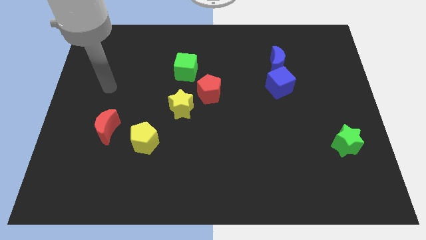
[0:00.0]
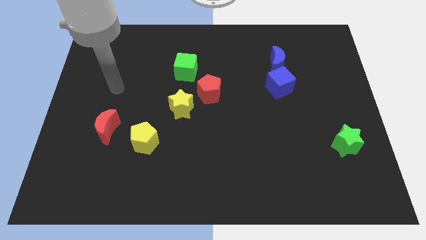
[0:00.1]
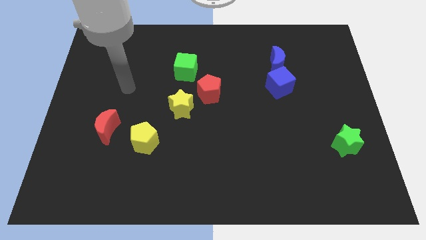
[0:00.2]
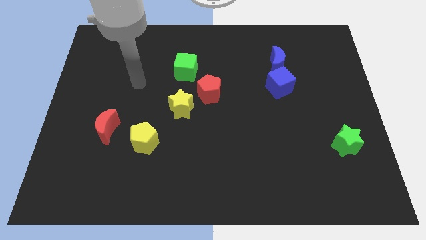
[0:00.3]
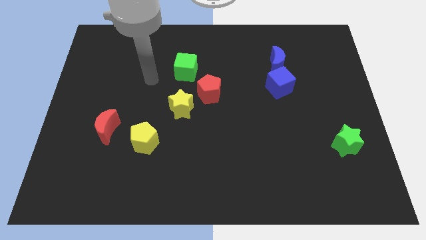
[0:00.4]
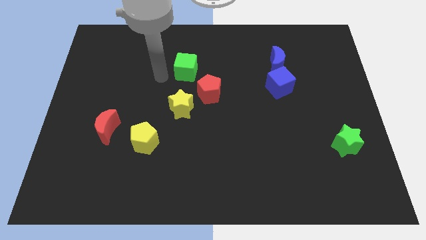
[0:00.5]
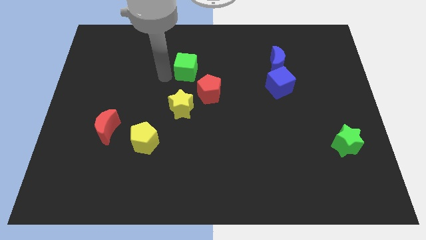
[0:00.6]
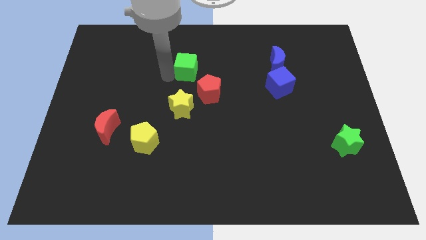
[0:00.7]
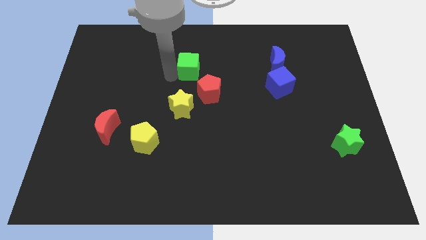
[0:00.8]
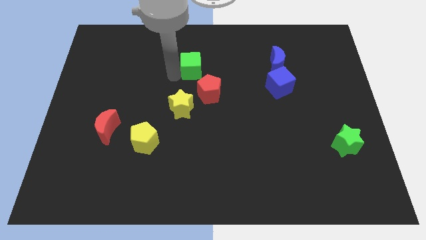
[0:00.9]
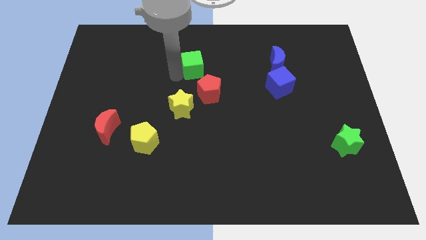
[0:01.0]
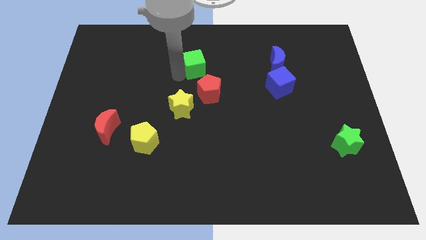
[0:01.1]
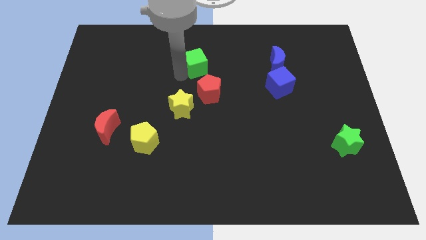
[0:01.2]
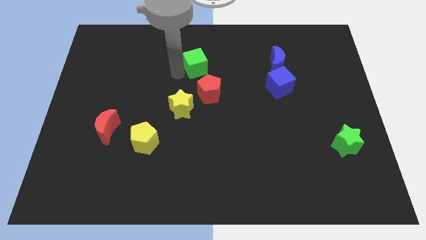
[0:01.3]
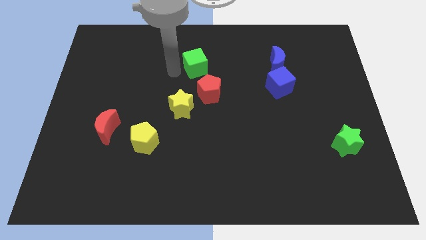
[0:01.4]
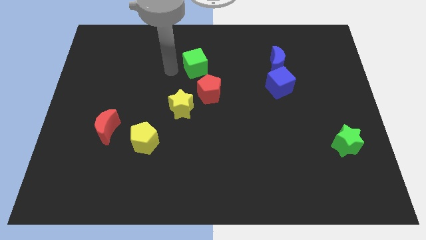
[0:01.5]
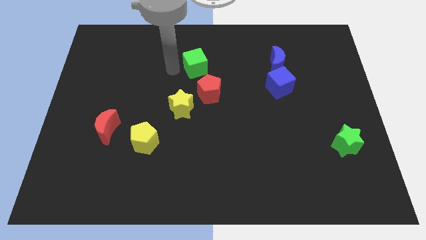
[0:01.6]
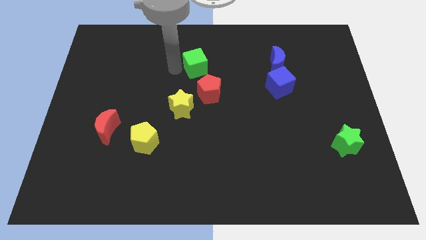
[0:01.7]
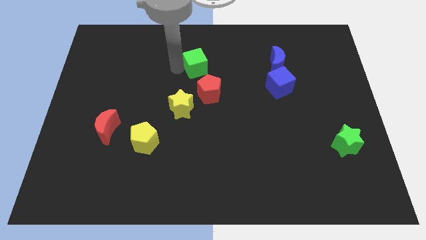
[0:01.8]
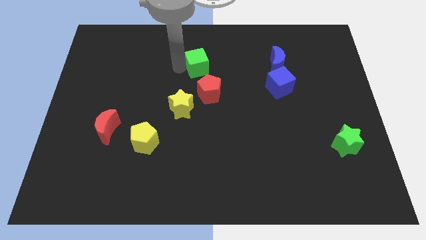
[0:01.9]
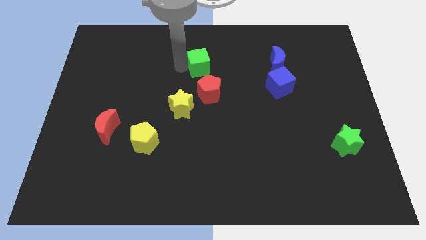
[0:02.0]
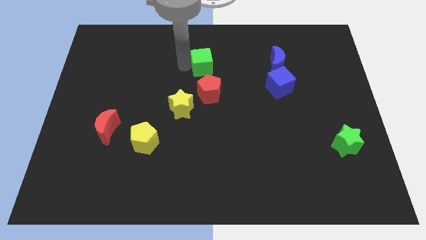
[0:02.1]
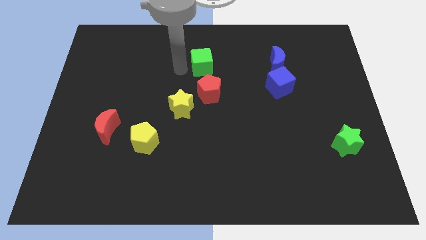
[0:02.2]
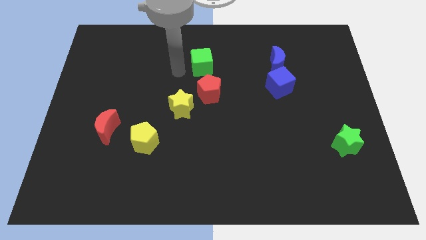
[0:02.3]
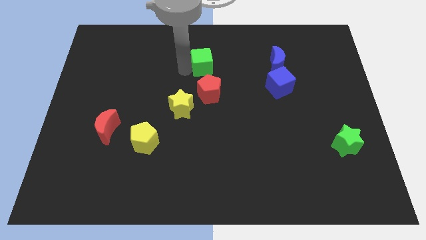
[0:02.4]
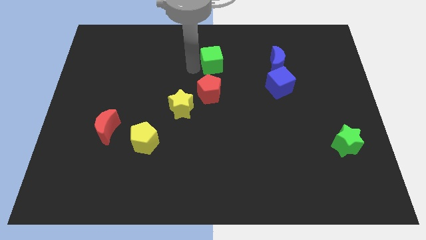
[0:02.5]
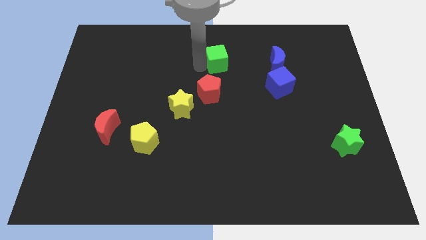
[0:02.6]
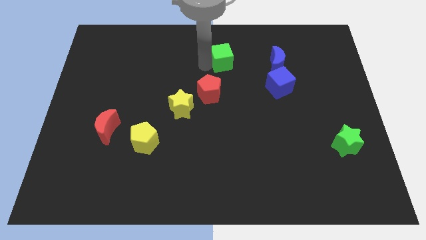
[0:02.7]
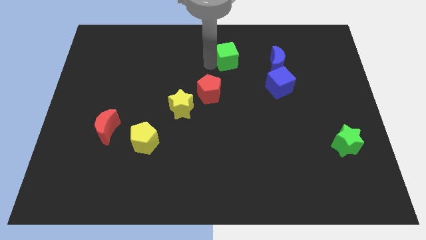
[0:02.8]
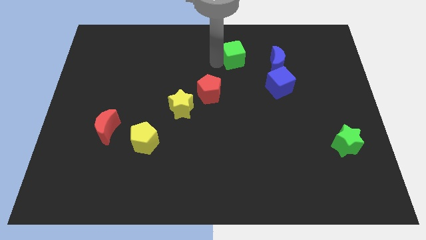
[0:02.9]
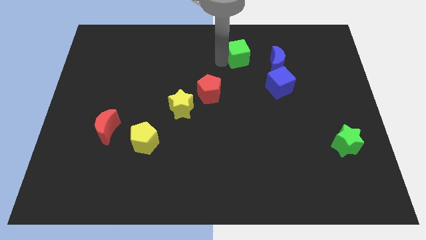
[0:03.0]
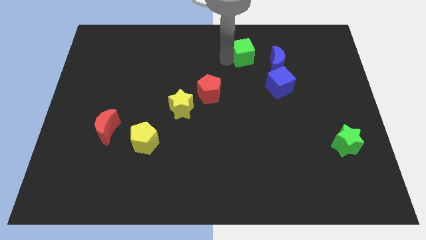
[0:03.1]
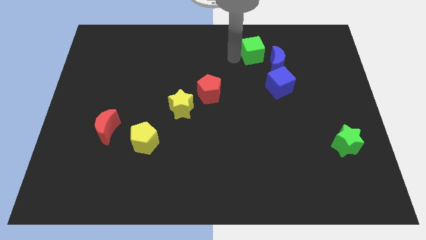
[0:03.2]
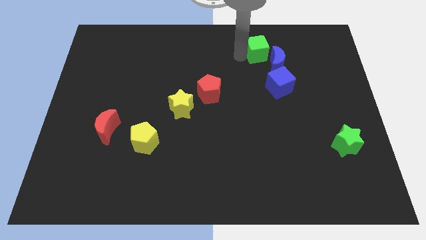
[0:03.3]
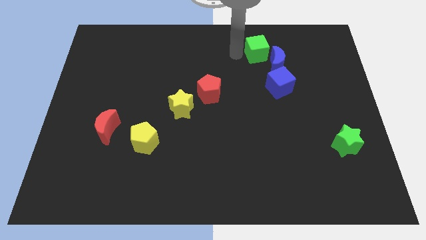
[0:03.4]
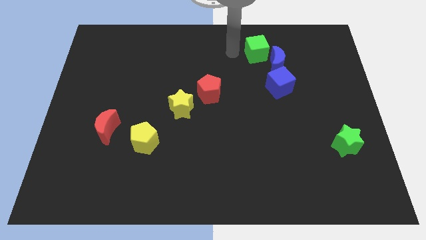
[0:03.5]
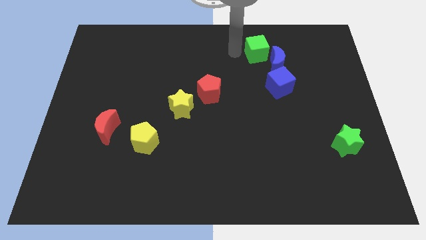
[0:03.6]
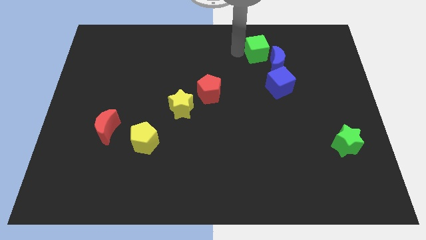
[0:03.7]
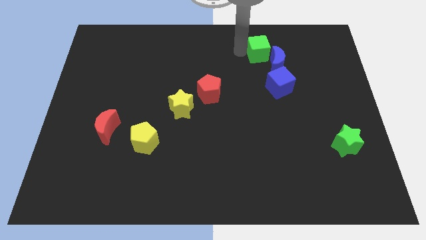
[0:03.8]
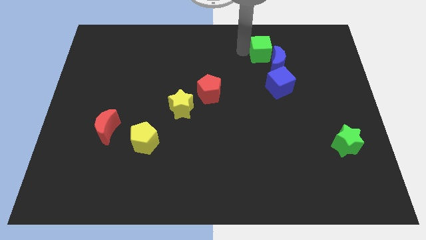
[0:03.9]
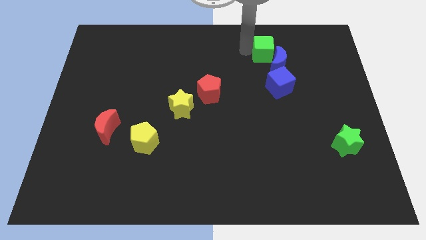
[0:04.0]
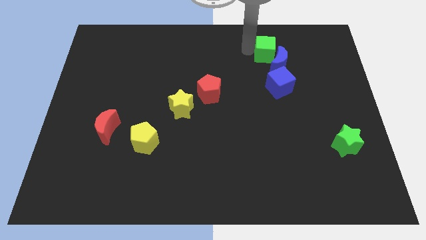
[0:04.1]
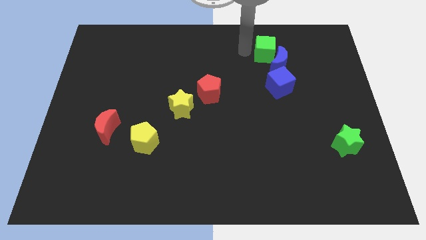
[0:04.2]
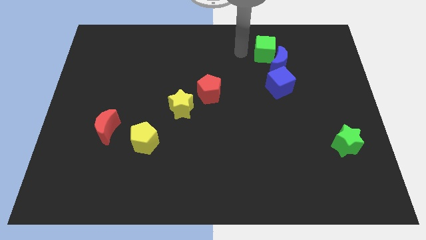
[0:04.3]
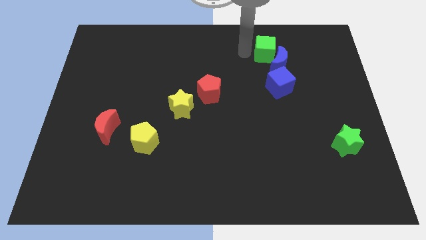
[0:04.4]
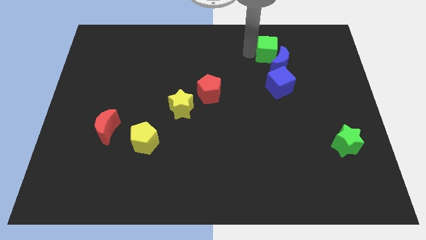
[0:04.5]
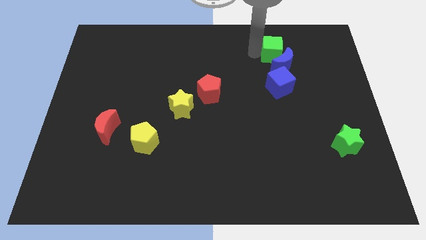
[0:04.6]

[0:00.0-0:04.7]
slide the green cube right

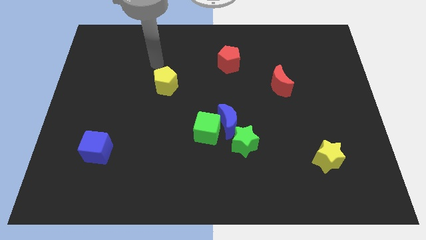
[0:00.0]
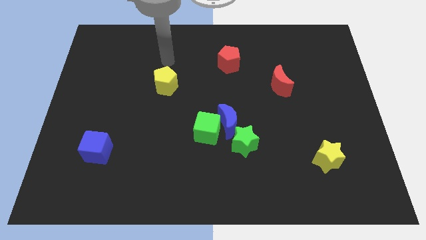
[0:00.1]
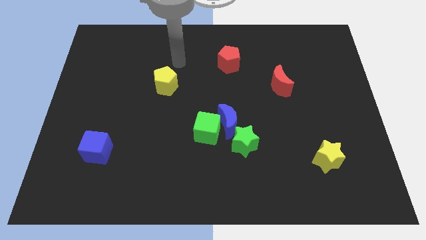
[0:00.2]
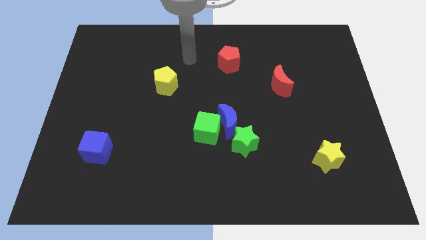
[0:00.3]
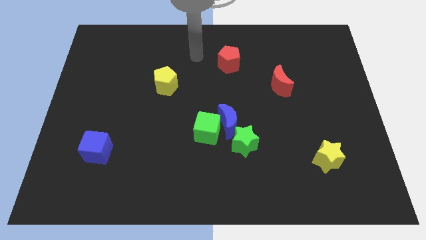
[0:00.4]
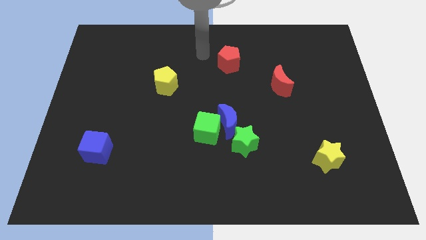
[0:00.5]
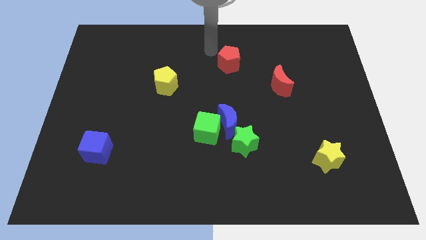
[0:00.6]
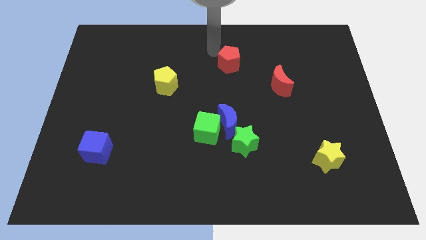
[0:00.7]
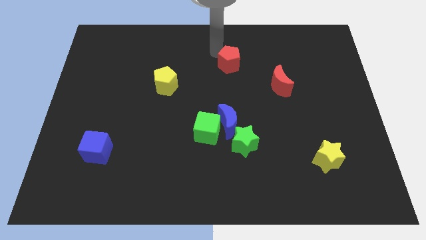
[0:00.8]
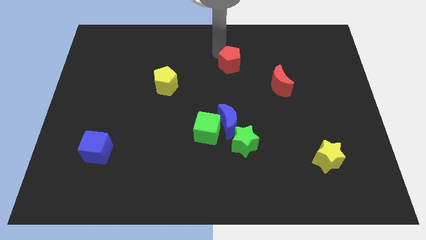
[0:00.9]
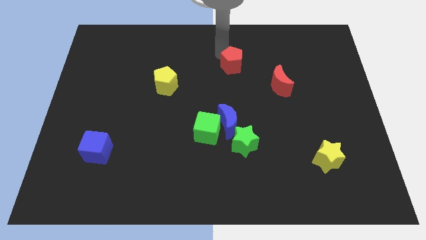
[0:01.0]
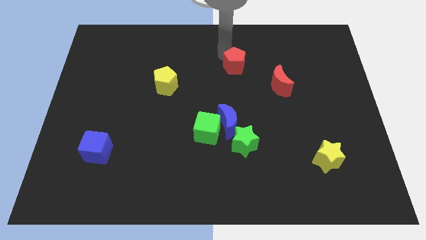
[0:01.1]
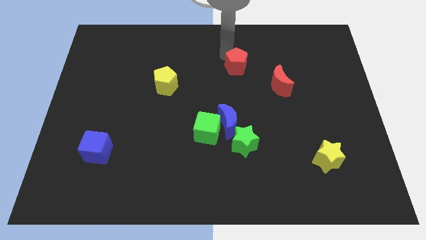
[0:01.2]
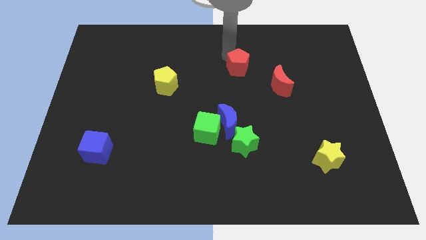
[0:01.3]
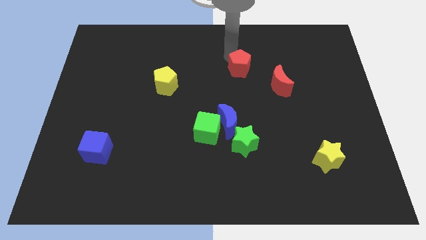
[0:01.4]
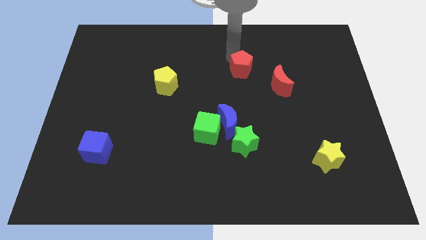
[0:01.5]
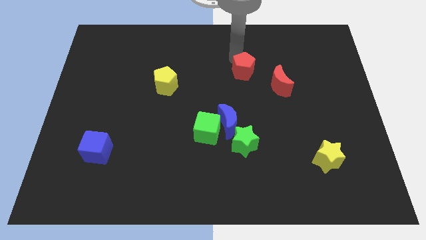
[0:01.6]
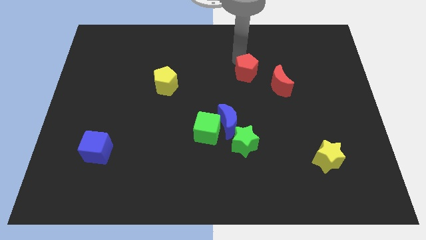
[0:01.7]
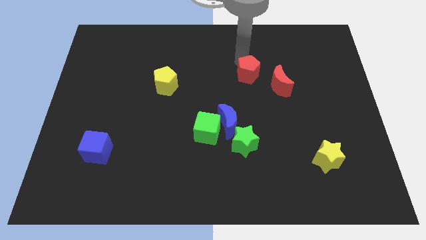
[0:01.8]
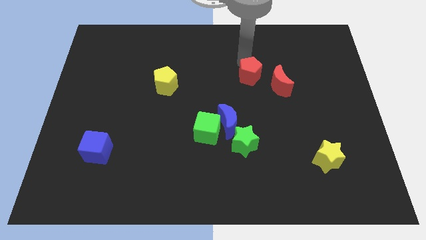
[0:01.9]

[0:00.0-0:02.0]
push the red pentagon downwards and then to the right somewhat

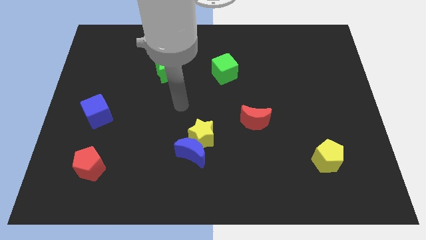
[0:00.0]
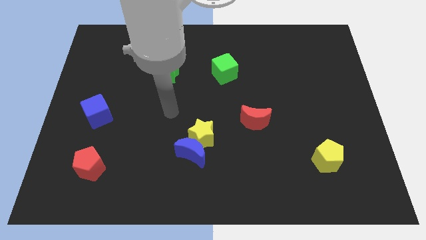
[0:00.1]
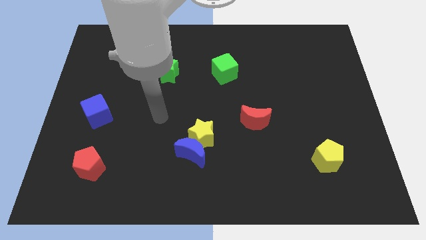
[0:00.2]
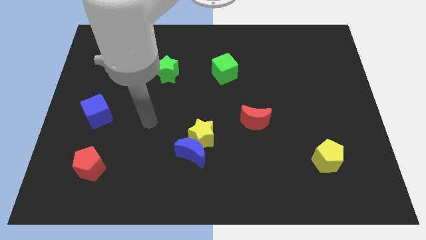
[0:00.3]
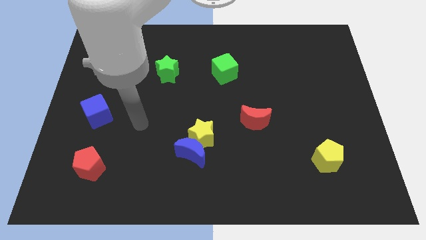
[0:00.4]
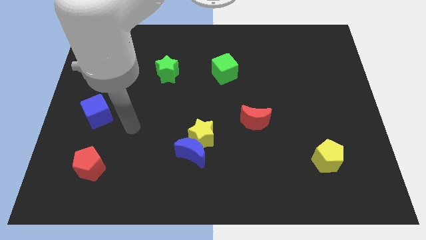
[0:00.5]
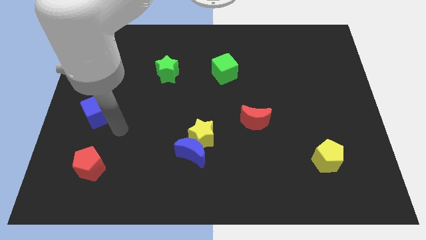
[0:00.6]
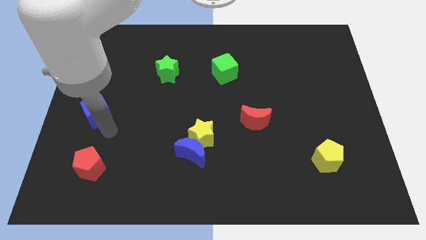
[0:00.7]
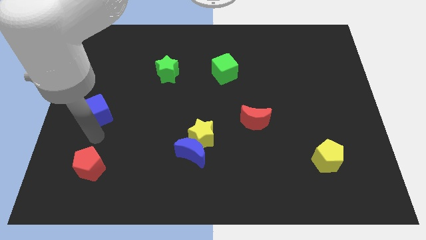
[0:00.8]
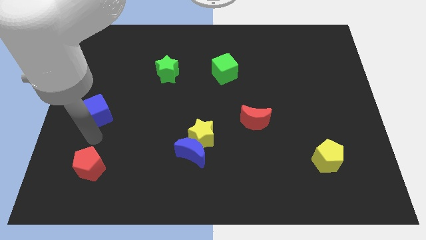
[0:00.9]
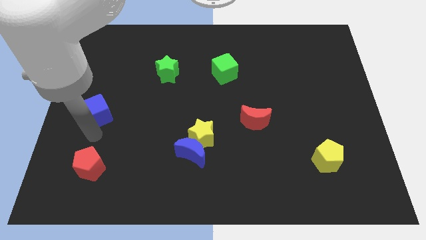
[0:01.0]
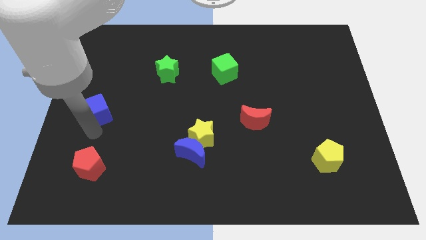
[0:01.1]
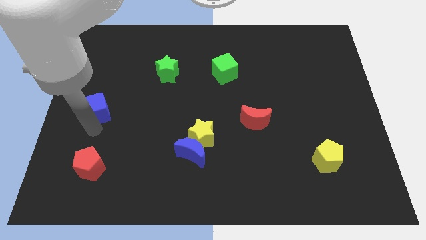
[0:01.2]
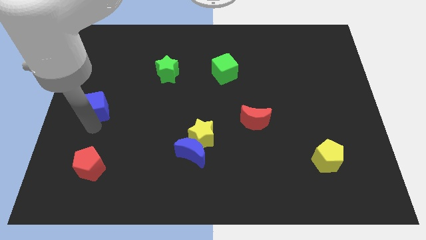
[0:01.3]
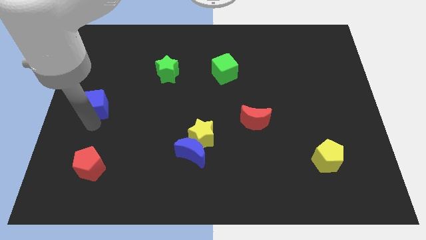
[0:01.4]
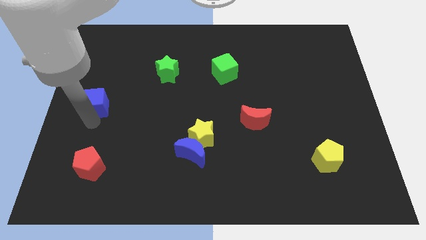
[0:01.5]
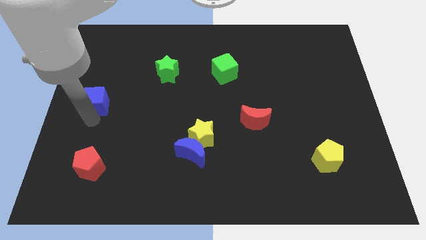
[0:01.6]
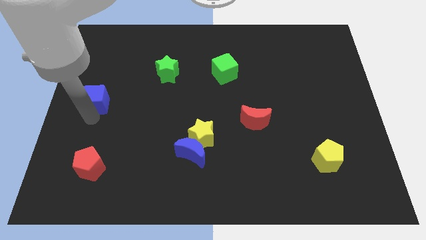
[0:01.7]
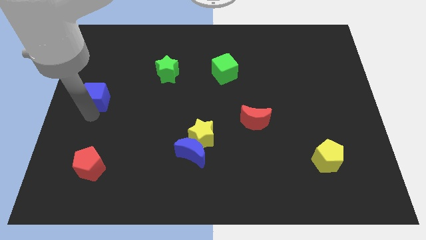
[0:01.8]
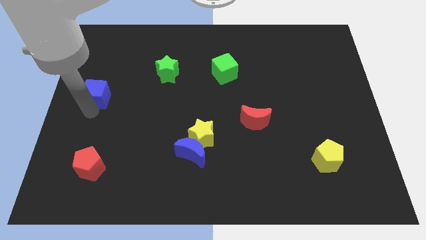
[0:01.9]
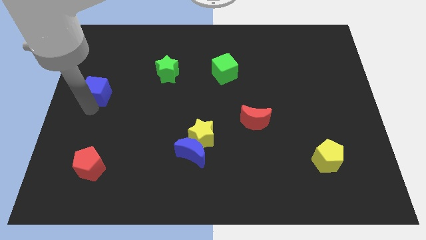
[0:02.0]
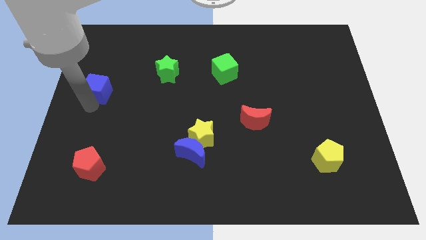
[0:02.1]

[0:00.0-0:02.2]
push the blue cube a bit up
